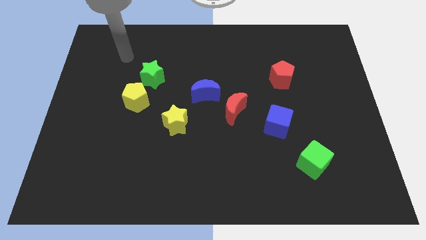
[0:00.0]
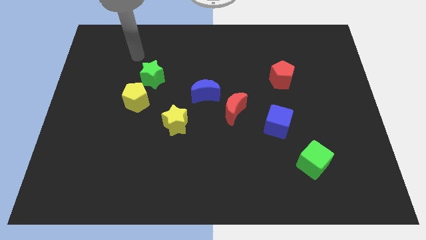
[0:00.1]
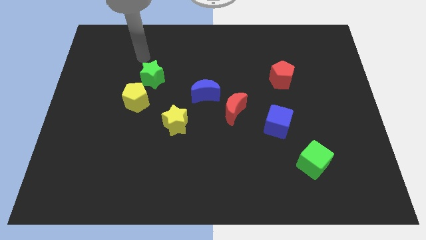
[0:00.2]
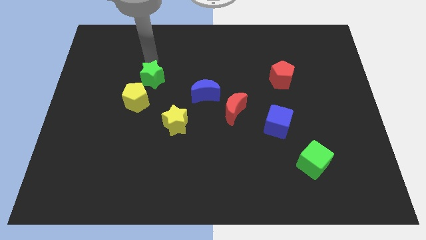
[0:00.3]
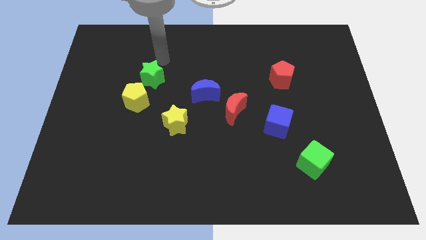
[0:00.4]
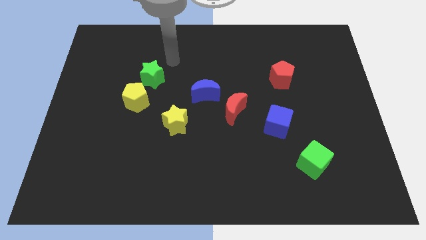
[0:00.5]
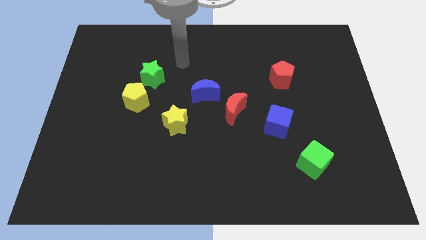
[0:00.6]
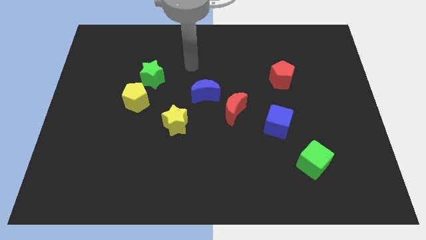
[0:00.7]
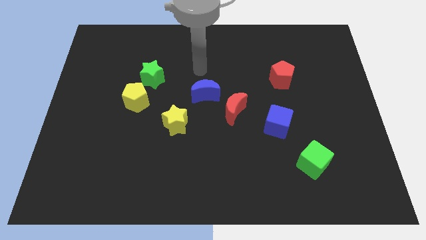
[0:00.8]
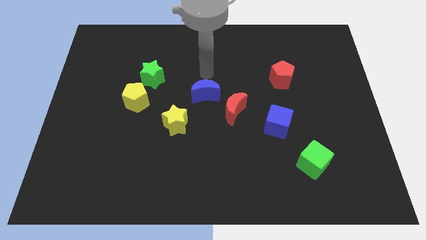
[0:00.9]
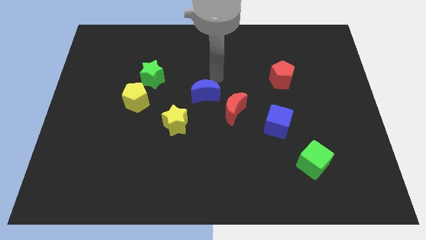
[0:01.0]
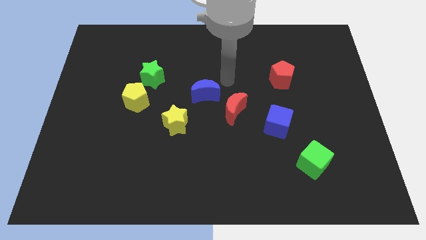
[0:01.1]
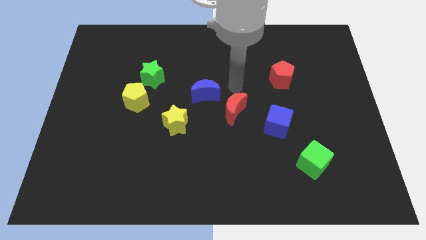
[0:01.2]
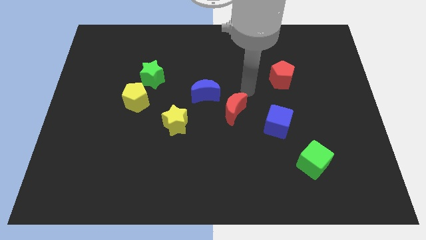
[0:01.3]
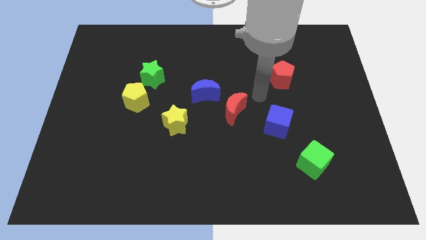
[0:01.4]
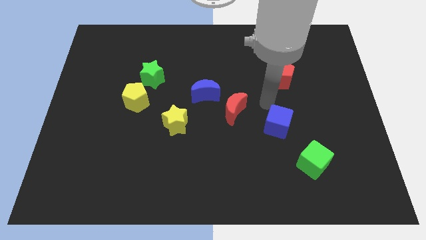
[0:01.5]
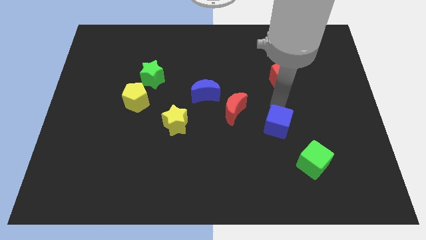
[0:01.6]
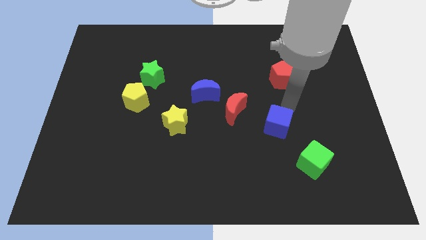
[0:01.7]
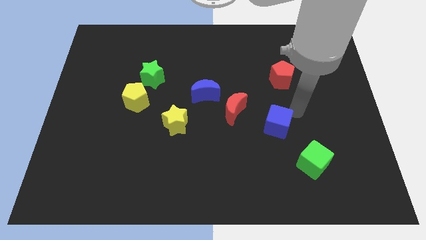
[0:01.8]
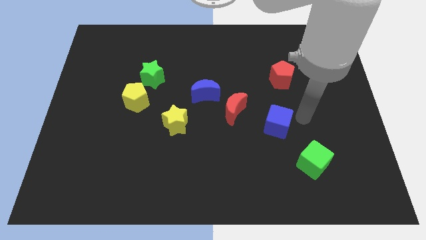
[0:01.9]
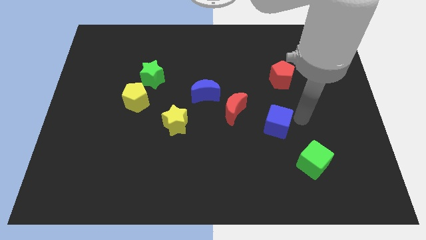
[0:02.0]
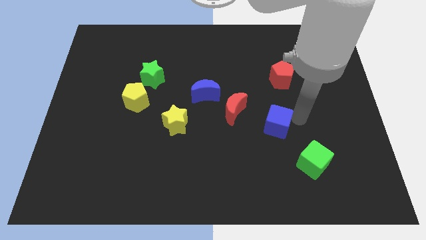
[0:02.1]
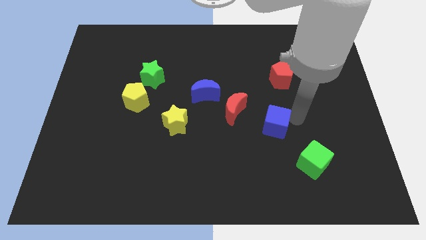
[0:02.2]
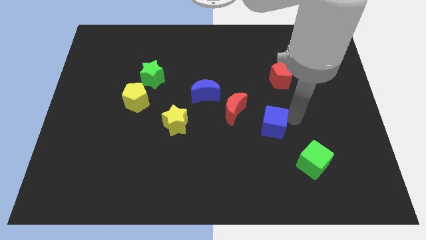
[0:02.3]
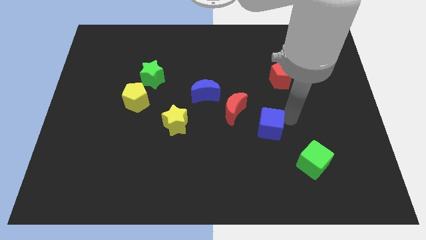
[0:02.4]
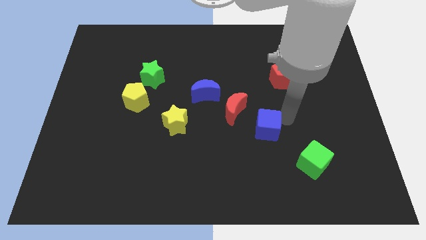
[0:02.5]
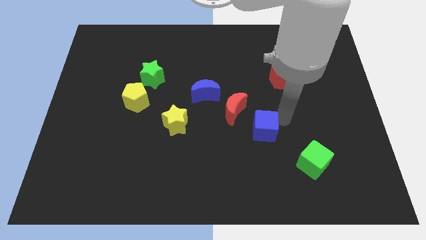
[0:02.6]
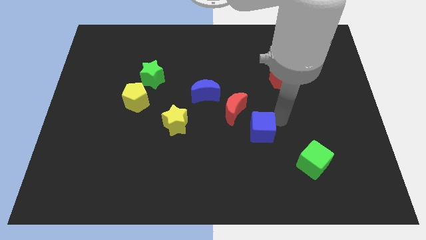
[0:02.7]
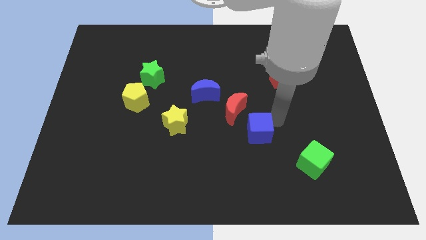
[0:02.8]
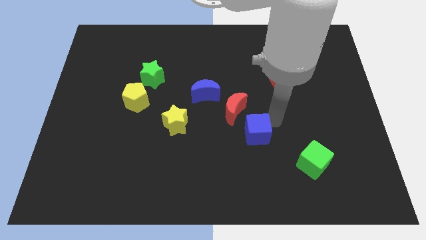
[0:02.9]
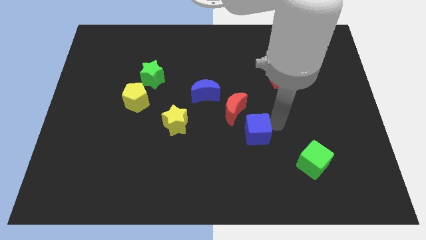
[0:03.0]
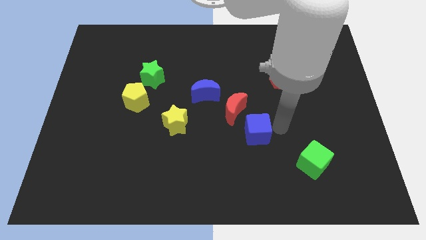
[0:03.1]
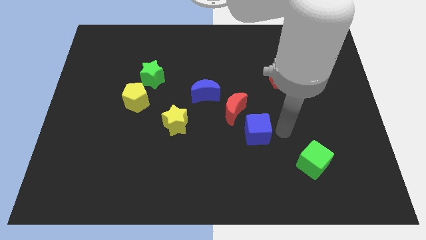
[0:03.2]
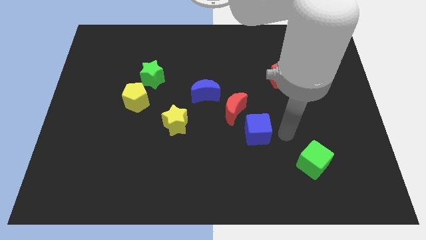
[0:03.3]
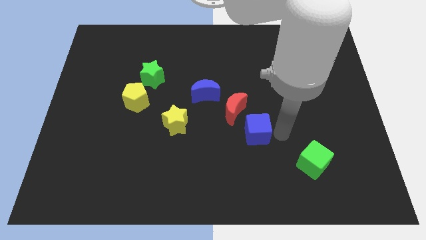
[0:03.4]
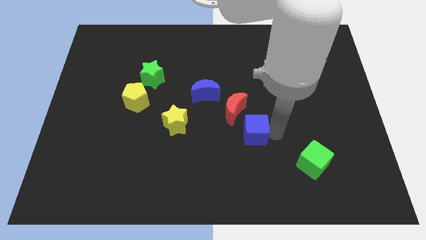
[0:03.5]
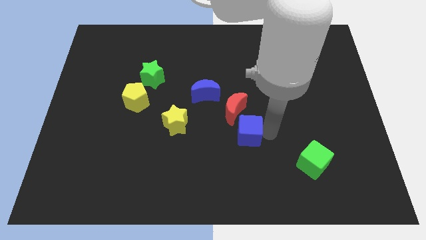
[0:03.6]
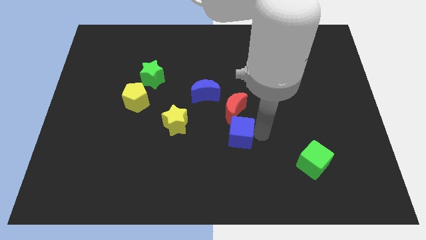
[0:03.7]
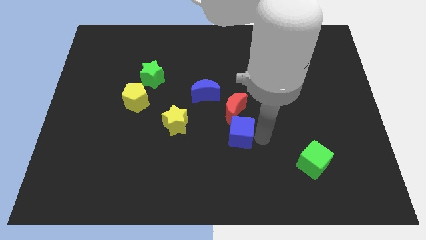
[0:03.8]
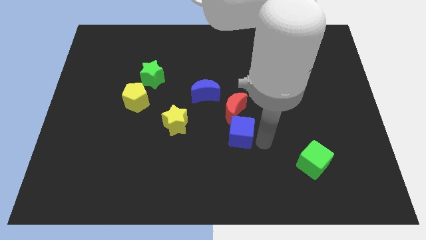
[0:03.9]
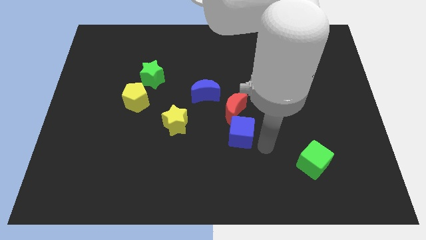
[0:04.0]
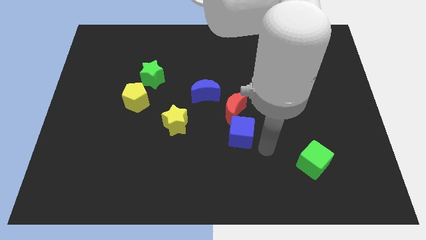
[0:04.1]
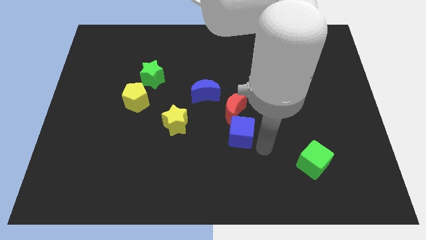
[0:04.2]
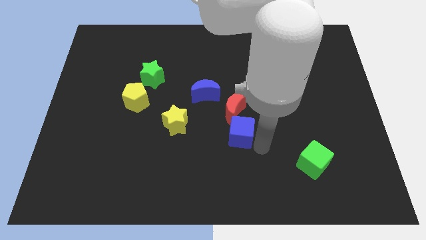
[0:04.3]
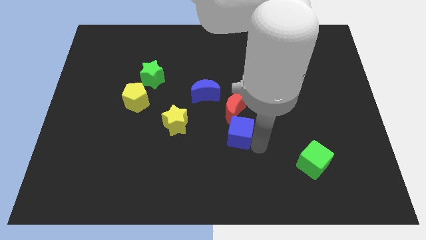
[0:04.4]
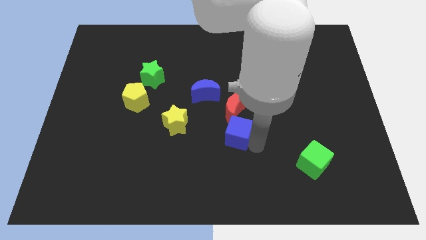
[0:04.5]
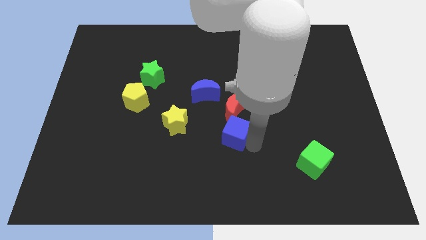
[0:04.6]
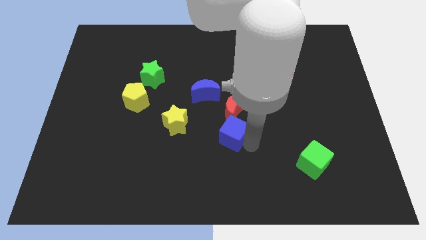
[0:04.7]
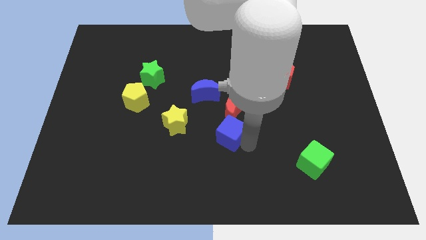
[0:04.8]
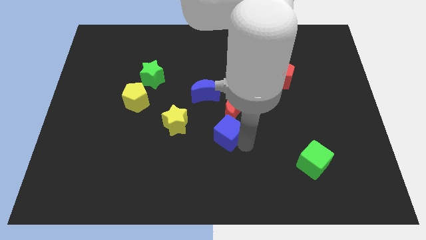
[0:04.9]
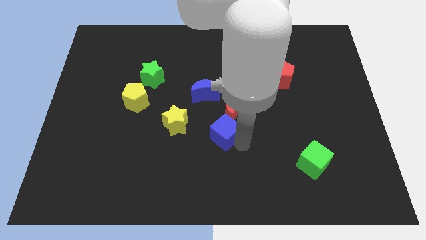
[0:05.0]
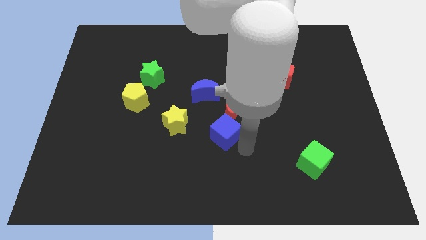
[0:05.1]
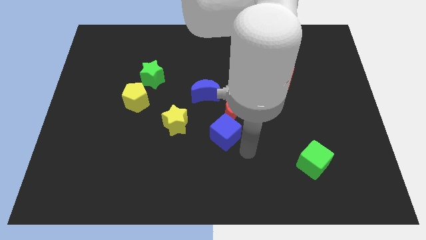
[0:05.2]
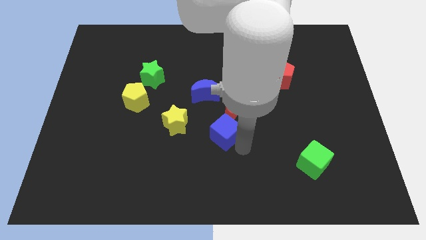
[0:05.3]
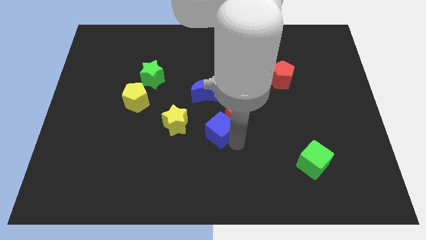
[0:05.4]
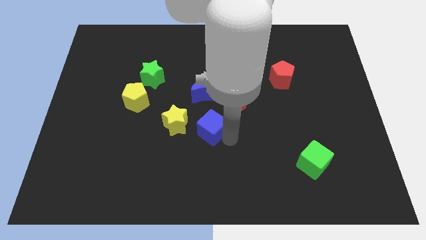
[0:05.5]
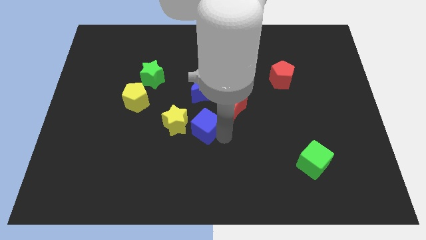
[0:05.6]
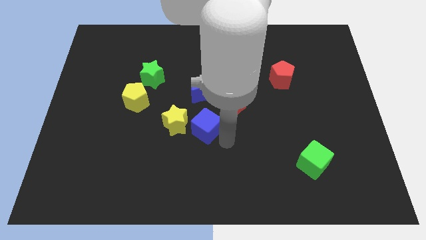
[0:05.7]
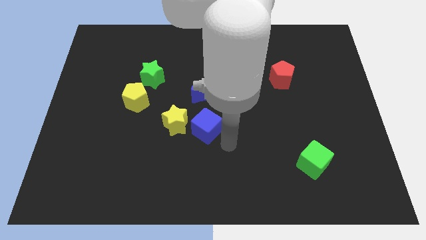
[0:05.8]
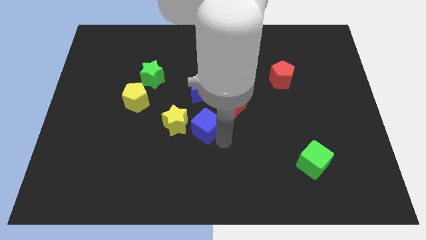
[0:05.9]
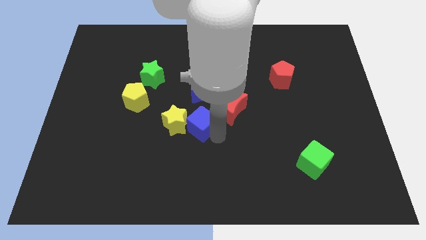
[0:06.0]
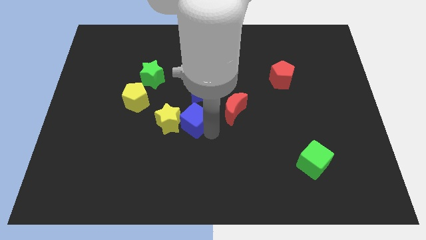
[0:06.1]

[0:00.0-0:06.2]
slide the blue cube diagonally down and to the left of the blue moon
